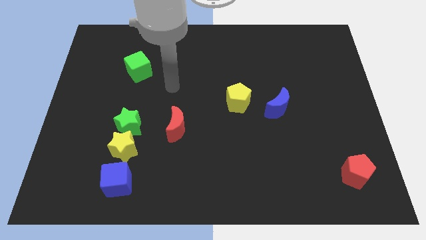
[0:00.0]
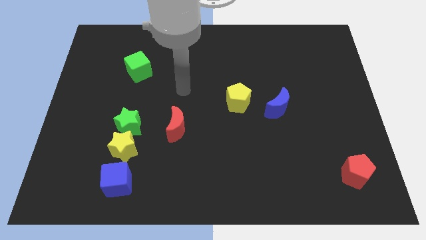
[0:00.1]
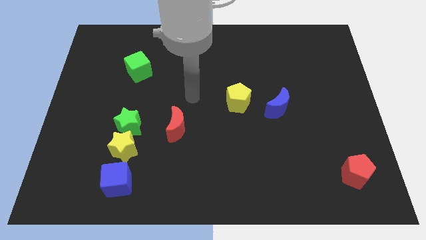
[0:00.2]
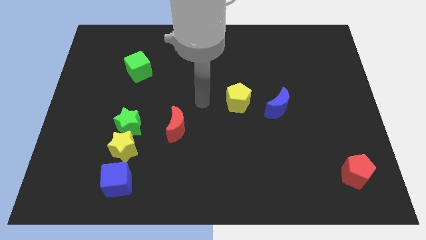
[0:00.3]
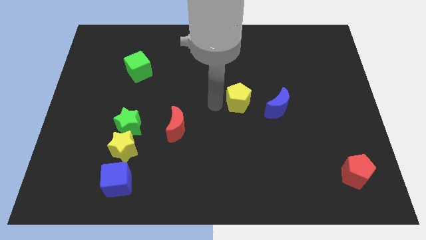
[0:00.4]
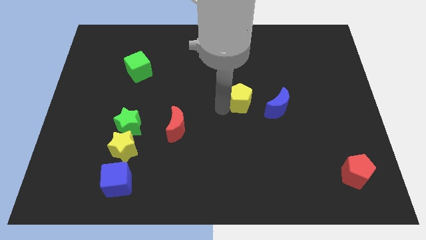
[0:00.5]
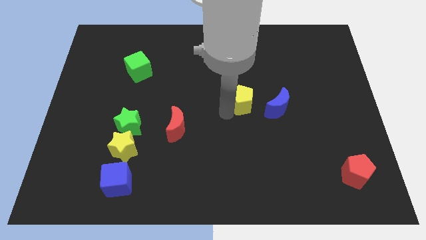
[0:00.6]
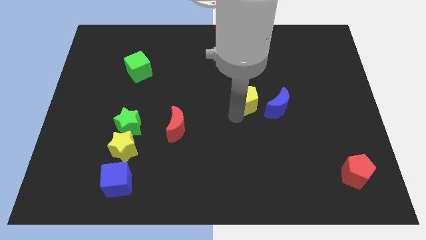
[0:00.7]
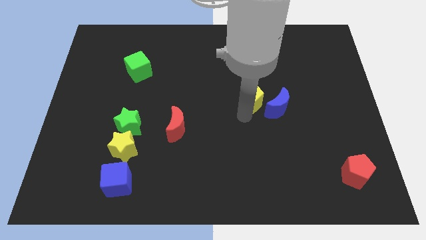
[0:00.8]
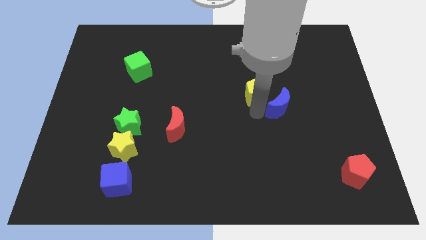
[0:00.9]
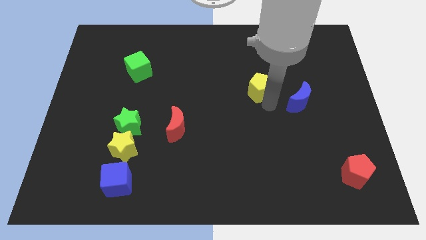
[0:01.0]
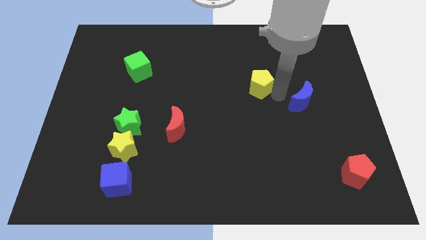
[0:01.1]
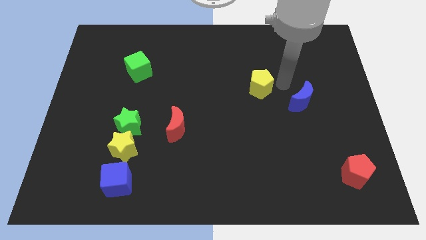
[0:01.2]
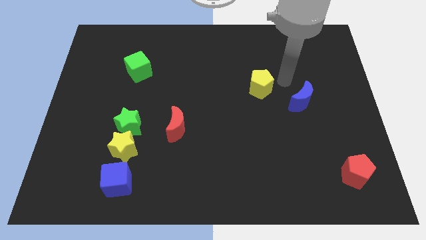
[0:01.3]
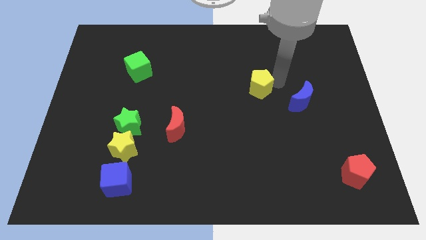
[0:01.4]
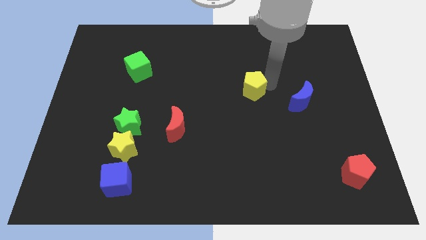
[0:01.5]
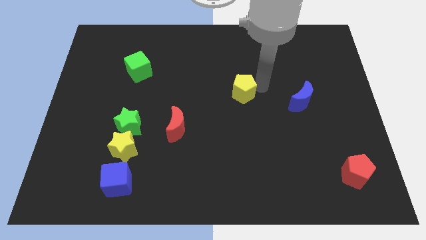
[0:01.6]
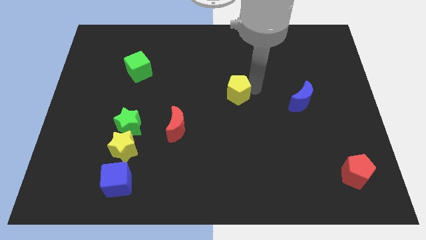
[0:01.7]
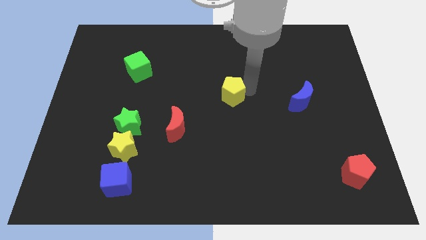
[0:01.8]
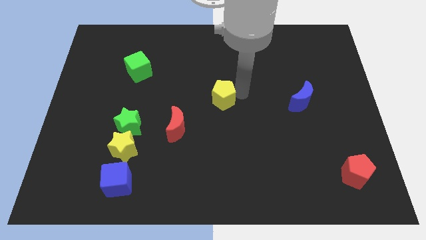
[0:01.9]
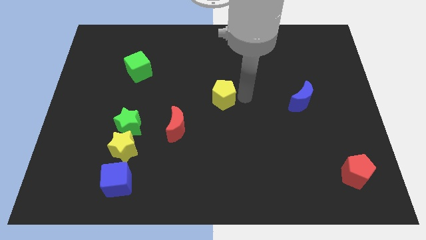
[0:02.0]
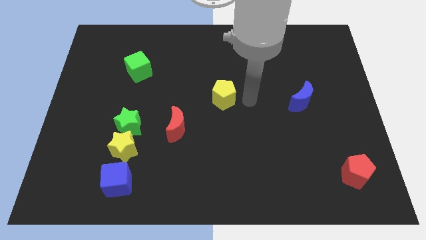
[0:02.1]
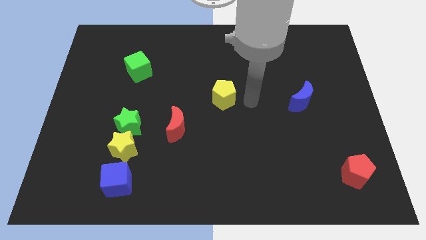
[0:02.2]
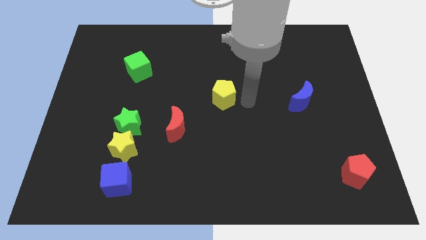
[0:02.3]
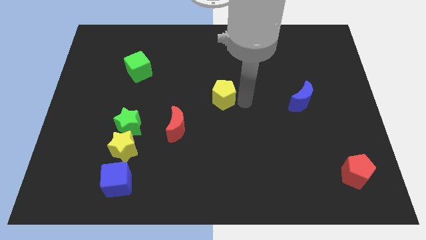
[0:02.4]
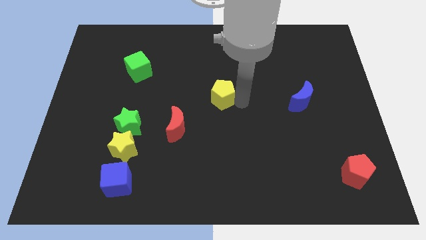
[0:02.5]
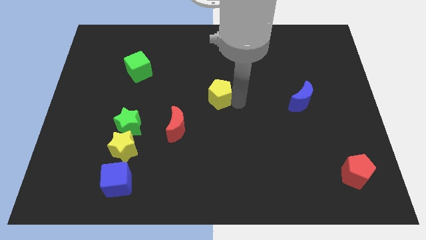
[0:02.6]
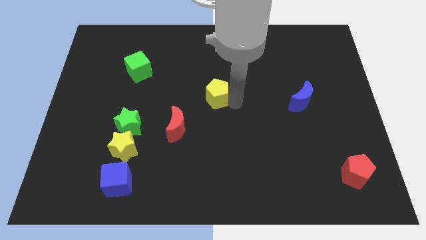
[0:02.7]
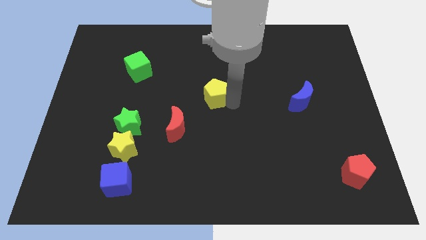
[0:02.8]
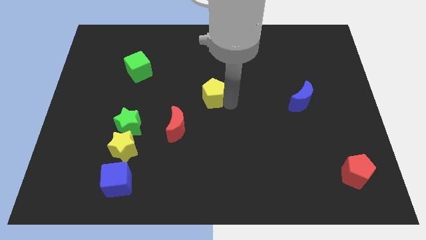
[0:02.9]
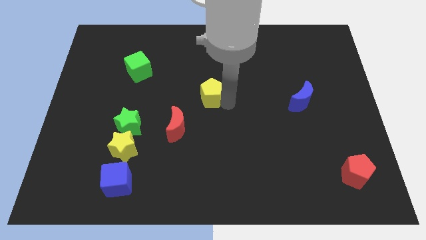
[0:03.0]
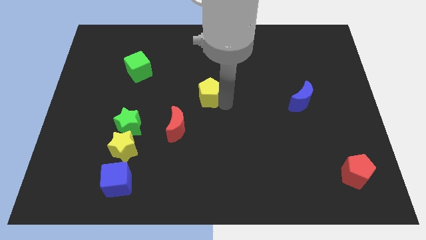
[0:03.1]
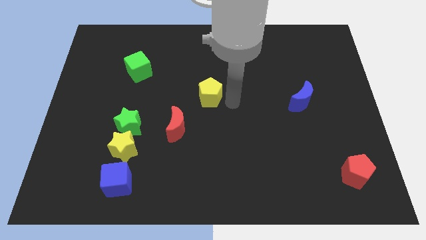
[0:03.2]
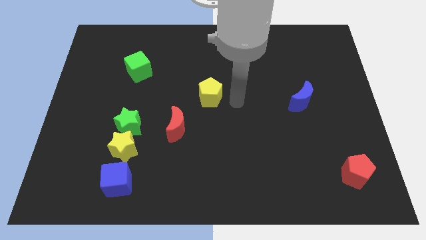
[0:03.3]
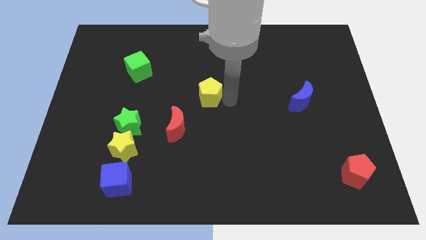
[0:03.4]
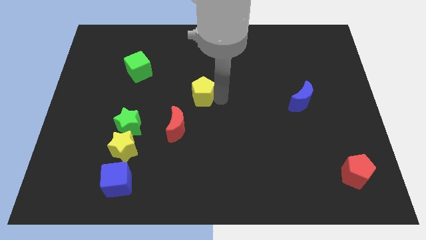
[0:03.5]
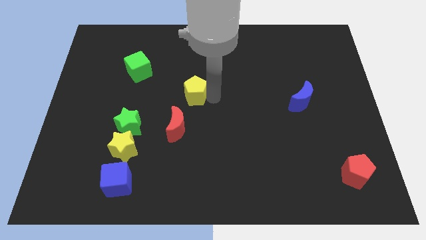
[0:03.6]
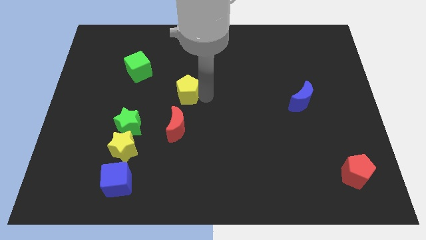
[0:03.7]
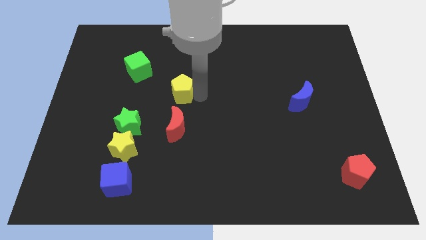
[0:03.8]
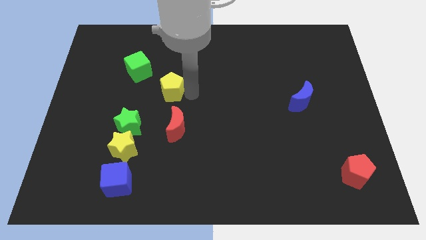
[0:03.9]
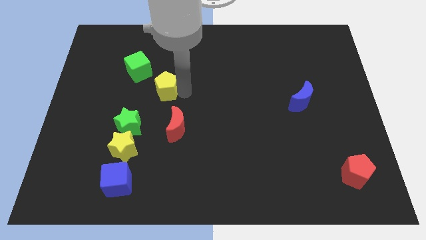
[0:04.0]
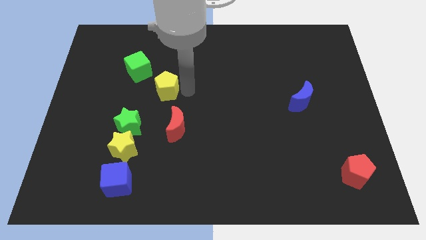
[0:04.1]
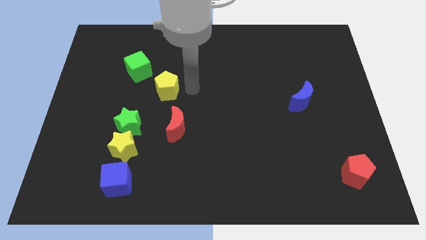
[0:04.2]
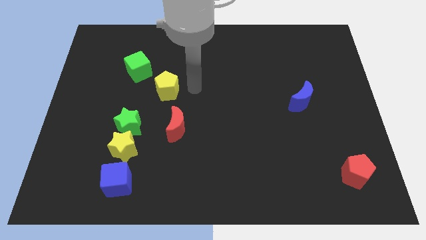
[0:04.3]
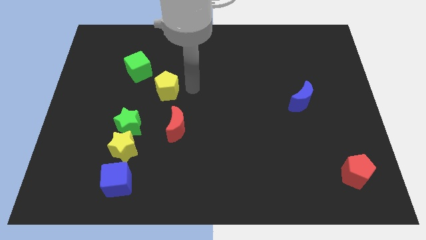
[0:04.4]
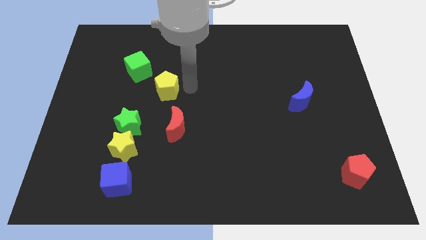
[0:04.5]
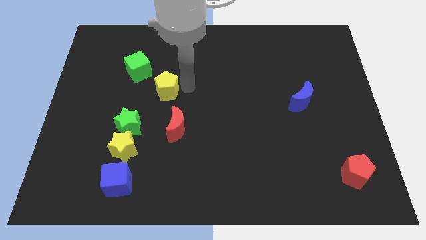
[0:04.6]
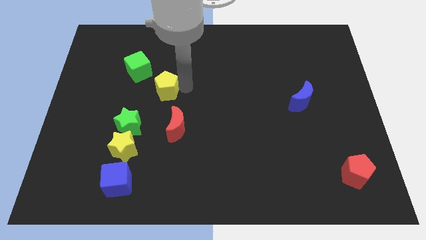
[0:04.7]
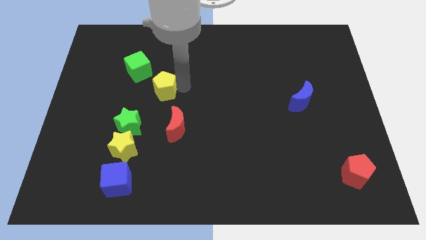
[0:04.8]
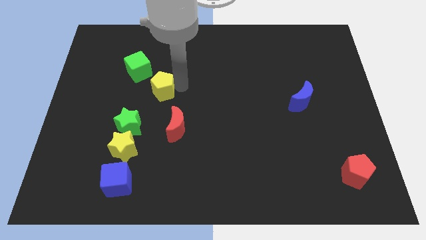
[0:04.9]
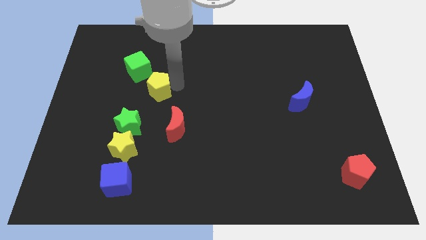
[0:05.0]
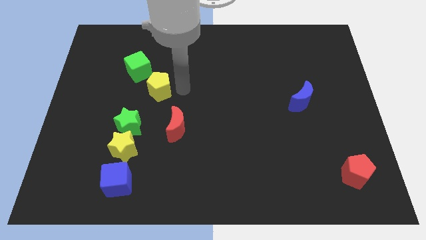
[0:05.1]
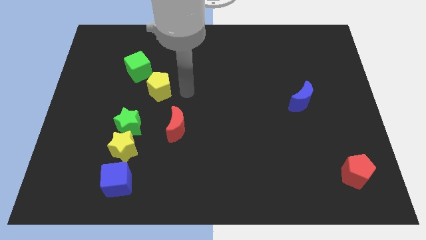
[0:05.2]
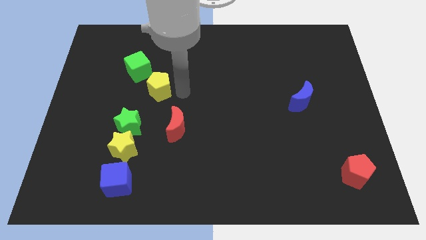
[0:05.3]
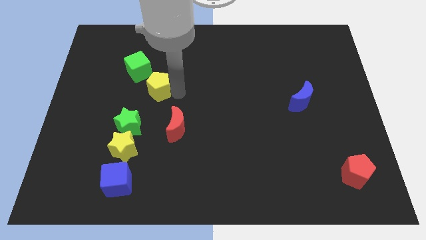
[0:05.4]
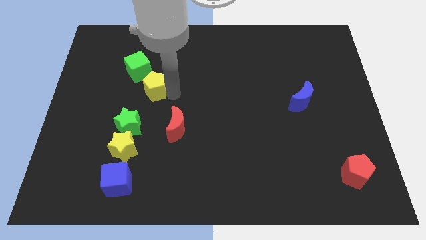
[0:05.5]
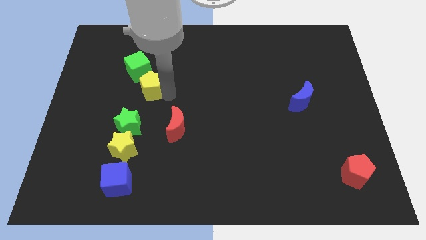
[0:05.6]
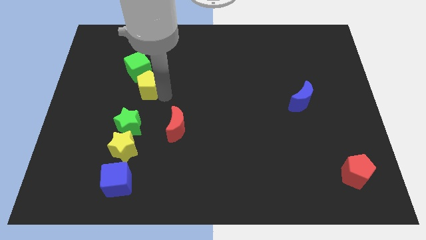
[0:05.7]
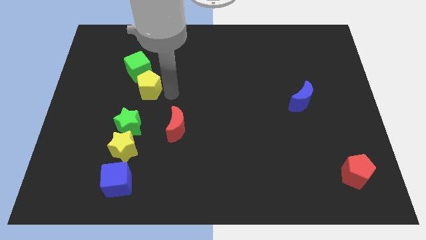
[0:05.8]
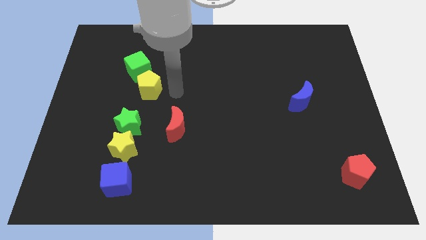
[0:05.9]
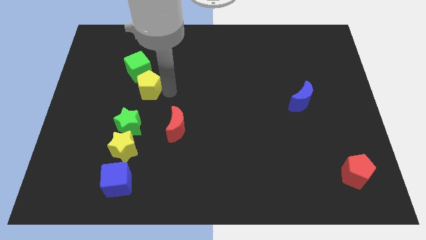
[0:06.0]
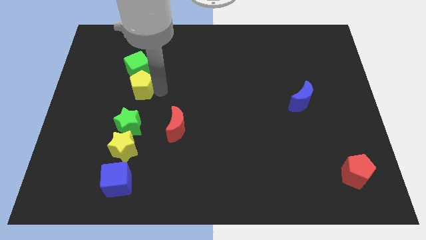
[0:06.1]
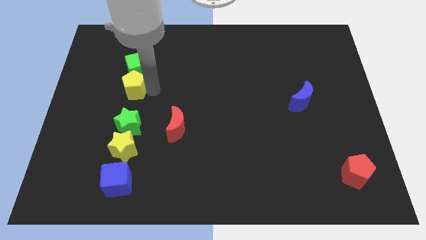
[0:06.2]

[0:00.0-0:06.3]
slide the yellow pentagon to the bottom left of the green cube

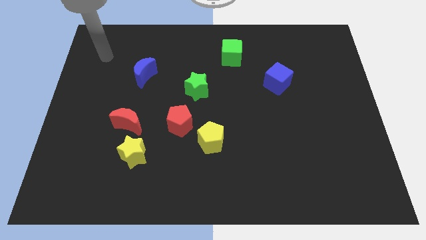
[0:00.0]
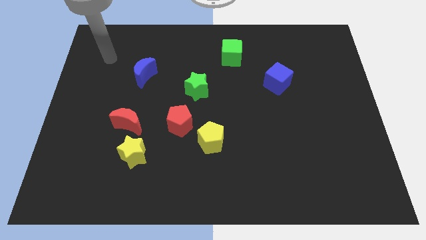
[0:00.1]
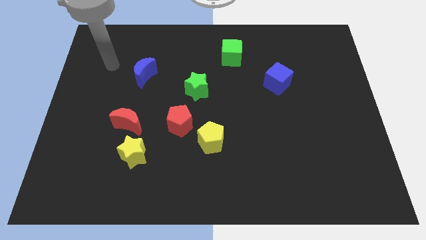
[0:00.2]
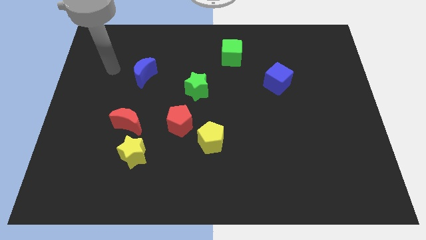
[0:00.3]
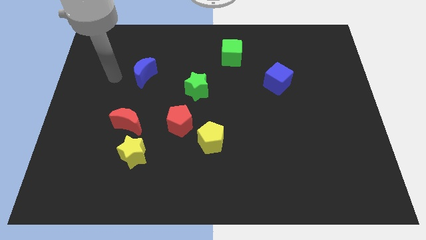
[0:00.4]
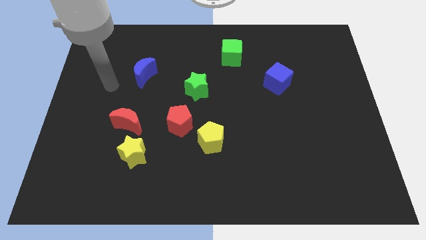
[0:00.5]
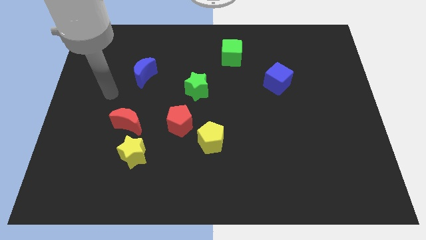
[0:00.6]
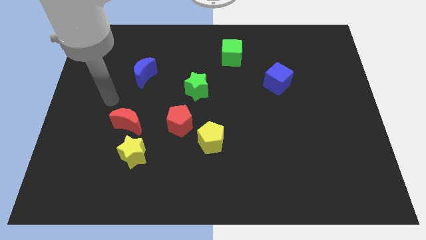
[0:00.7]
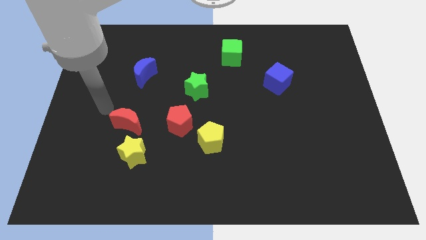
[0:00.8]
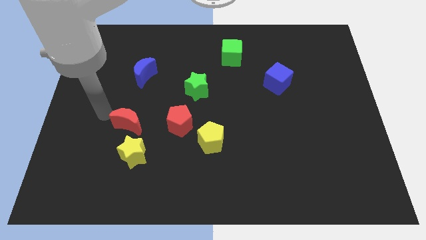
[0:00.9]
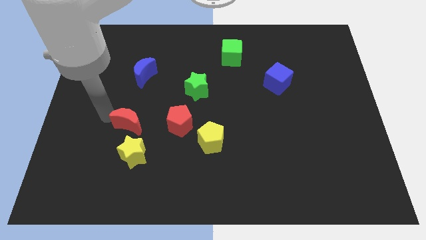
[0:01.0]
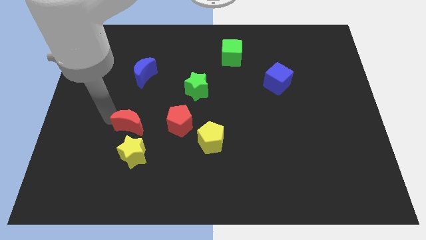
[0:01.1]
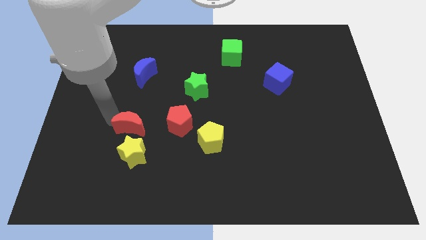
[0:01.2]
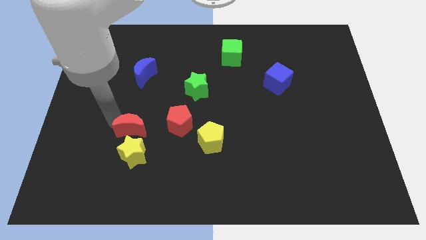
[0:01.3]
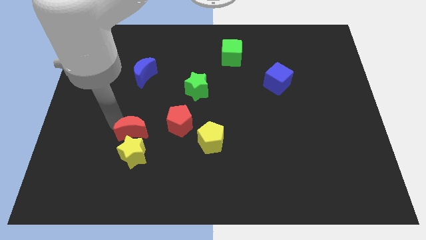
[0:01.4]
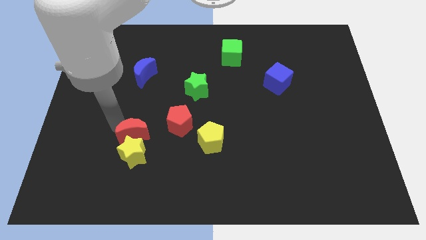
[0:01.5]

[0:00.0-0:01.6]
move the red moon diagonally up and to the right of the yellow star
